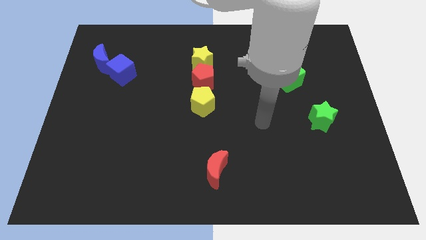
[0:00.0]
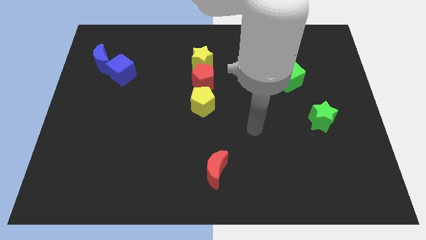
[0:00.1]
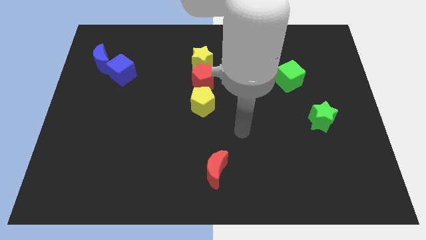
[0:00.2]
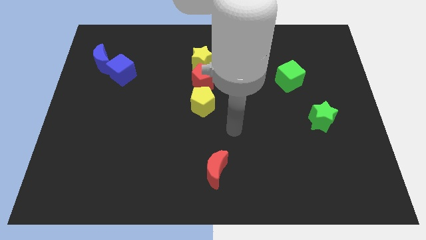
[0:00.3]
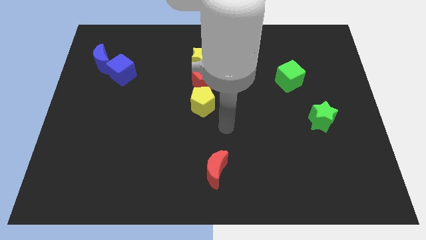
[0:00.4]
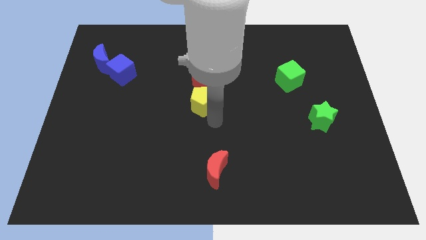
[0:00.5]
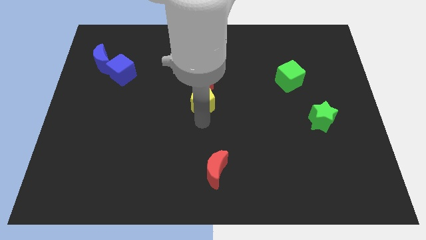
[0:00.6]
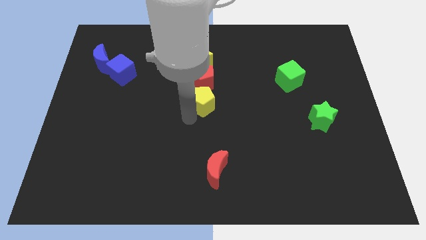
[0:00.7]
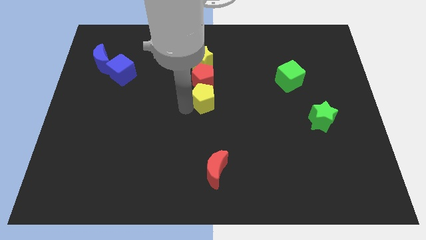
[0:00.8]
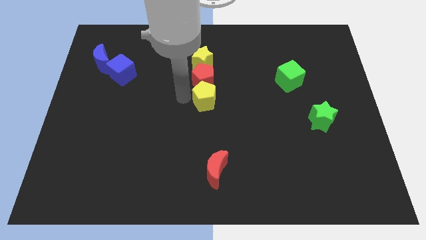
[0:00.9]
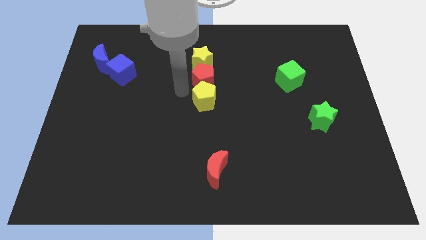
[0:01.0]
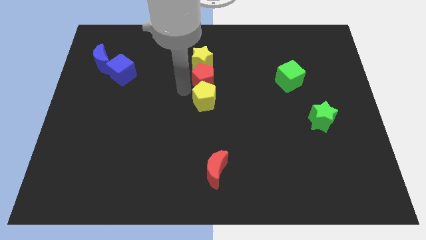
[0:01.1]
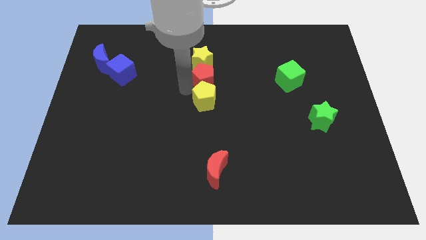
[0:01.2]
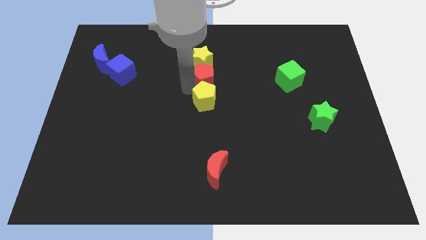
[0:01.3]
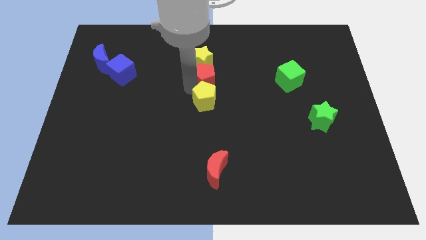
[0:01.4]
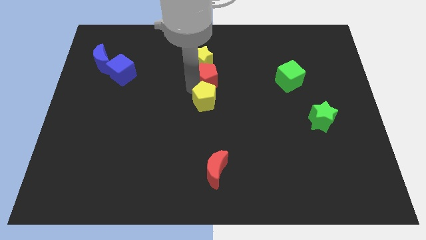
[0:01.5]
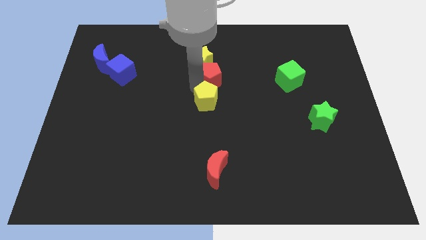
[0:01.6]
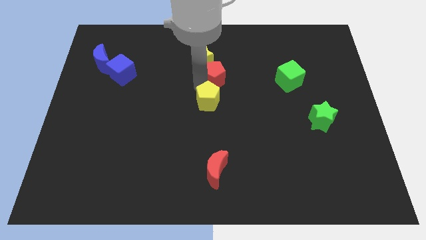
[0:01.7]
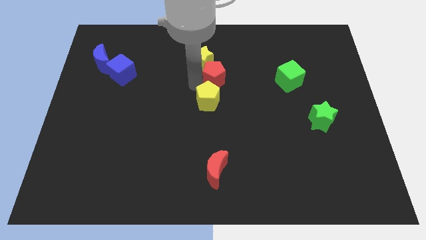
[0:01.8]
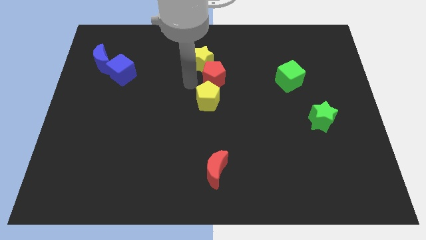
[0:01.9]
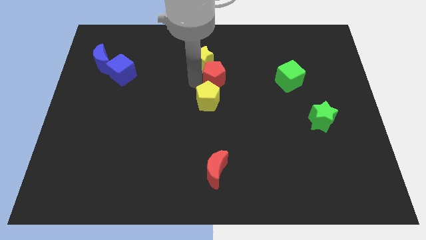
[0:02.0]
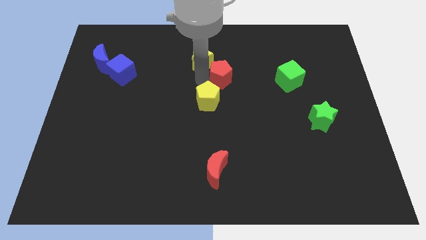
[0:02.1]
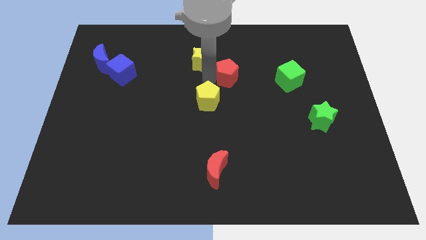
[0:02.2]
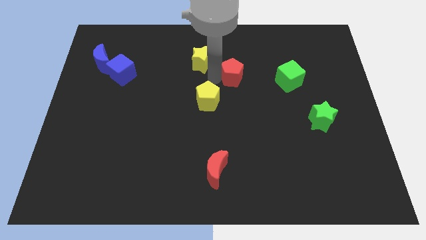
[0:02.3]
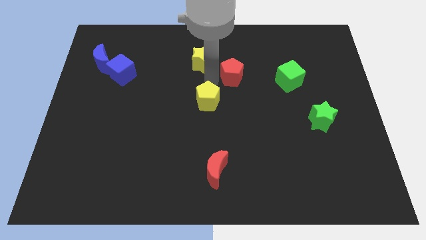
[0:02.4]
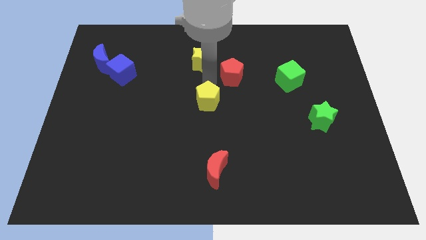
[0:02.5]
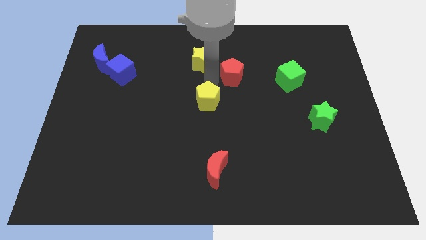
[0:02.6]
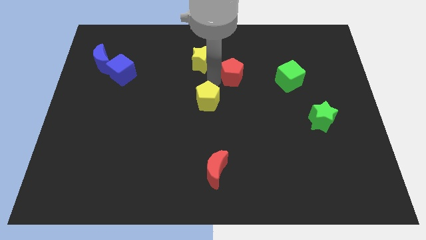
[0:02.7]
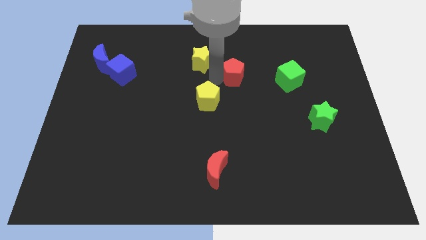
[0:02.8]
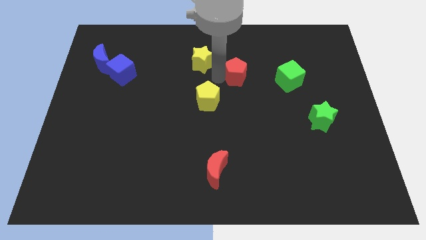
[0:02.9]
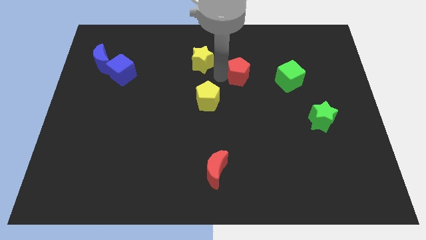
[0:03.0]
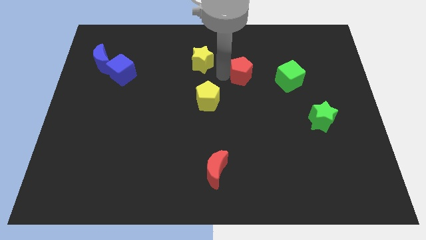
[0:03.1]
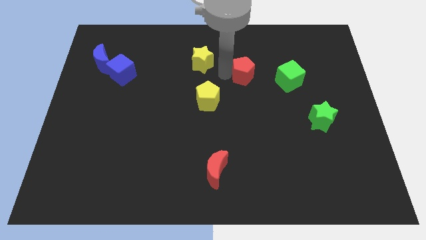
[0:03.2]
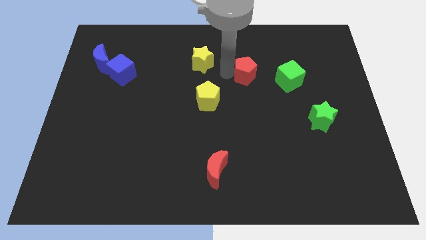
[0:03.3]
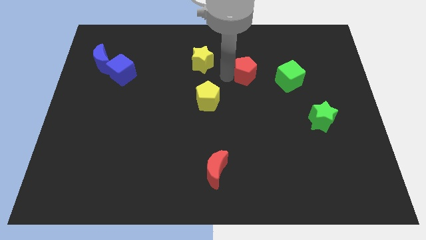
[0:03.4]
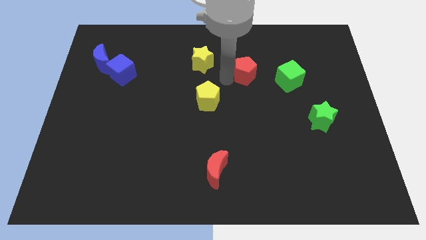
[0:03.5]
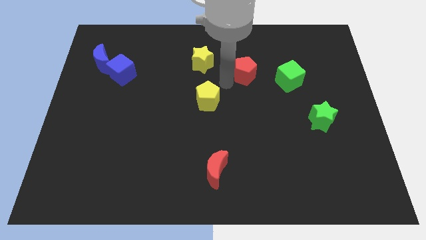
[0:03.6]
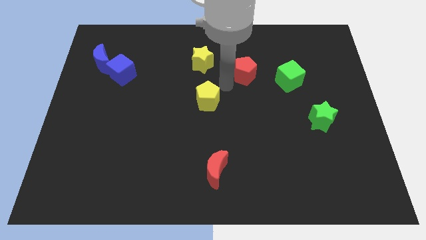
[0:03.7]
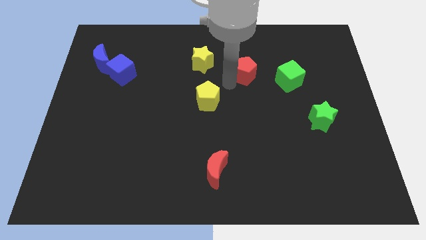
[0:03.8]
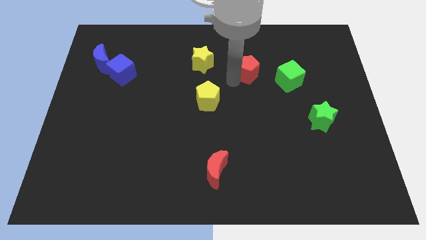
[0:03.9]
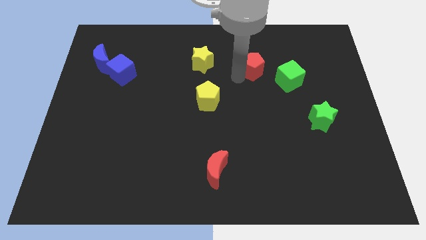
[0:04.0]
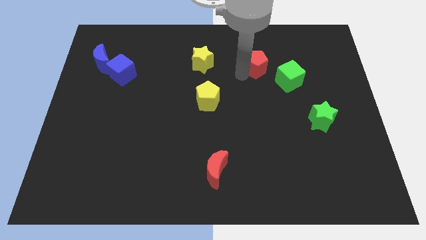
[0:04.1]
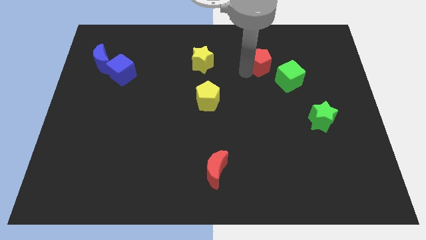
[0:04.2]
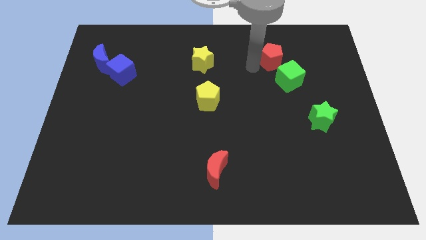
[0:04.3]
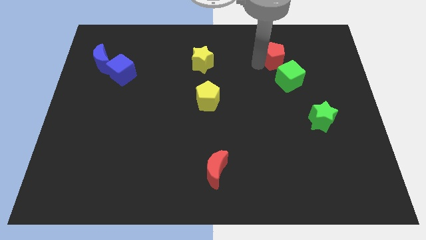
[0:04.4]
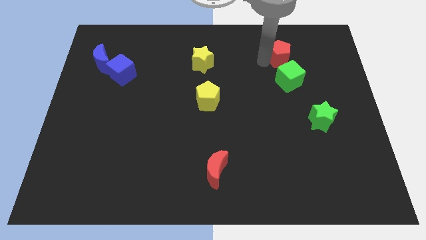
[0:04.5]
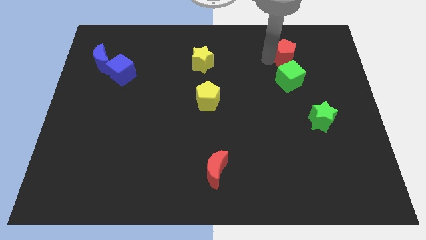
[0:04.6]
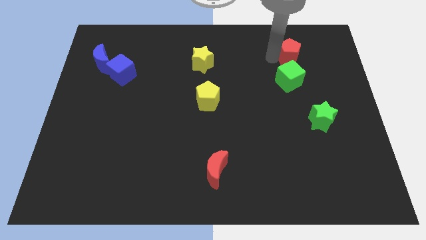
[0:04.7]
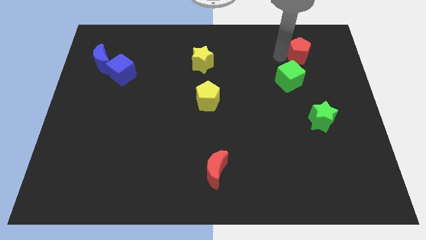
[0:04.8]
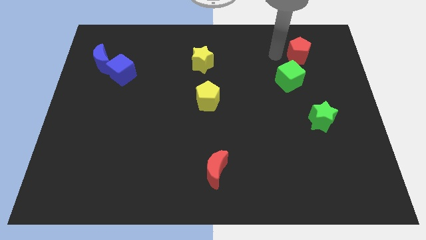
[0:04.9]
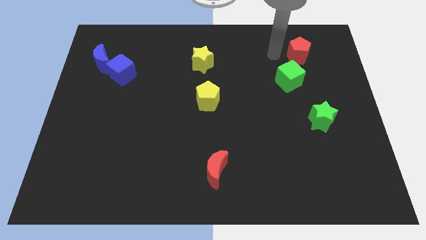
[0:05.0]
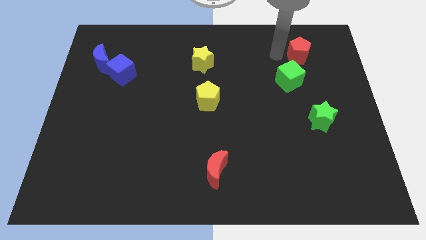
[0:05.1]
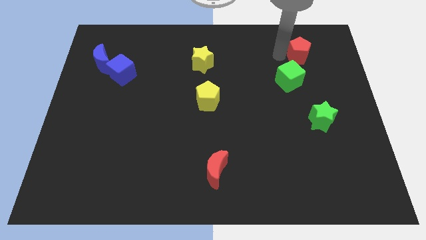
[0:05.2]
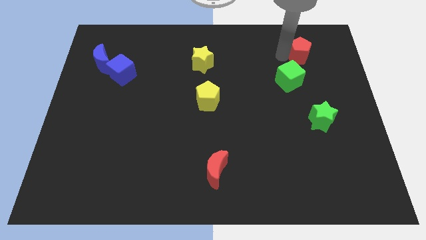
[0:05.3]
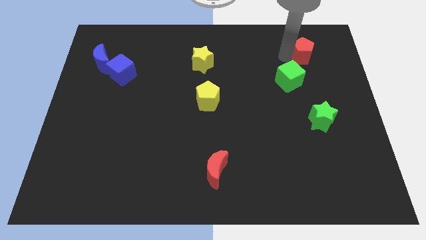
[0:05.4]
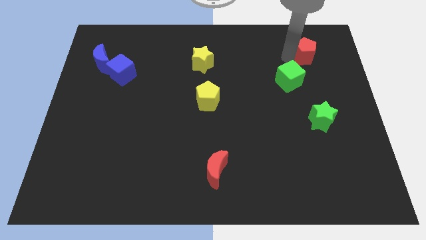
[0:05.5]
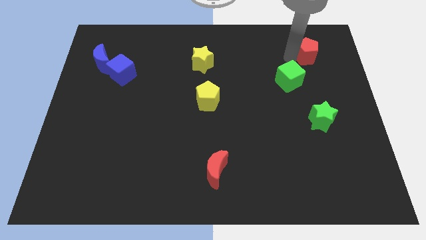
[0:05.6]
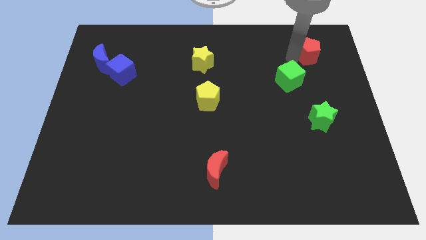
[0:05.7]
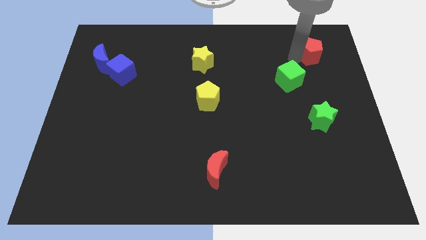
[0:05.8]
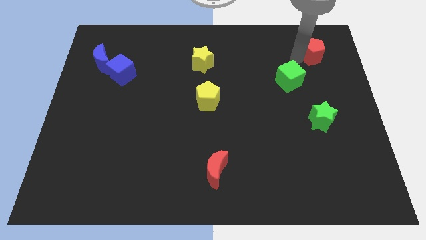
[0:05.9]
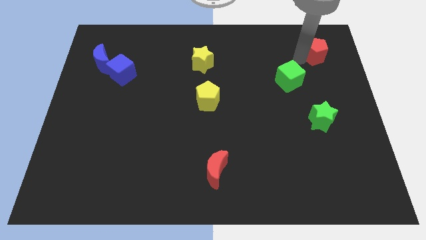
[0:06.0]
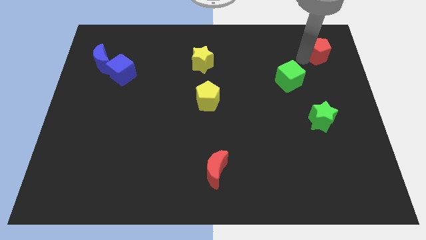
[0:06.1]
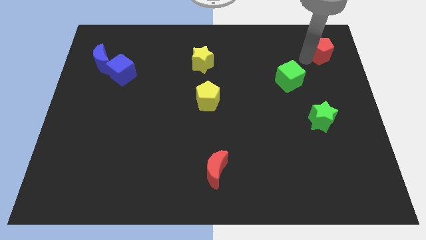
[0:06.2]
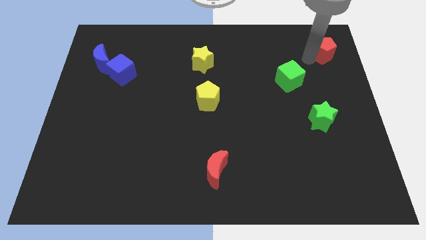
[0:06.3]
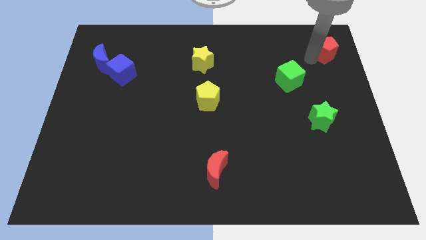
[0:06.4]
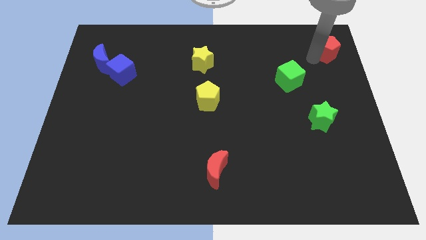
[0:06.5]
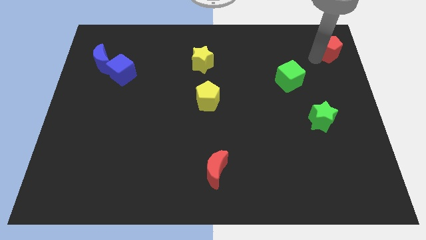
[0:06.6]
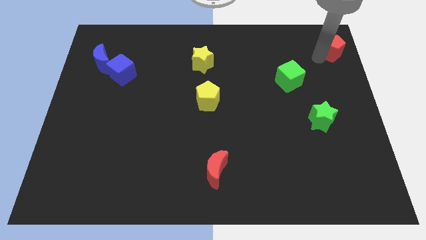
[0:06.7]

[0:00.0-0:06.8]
push the red pentagon to the top right corner
